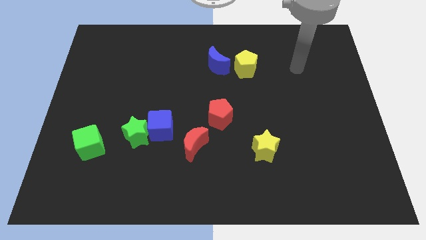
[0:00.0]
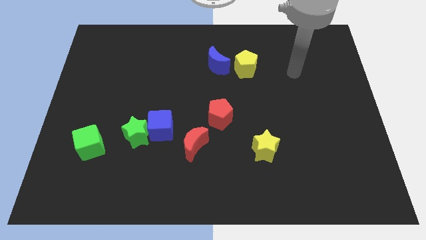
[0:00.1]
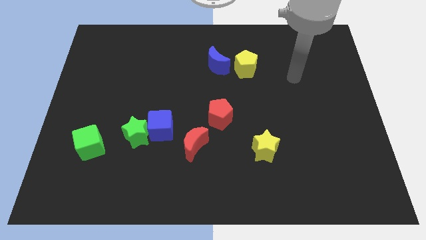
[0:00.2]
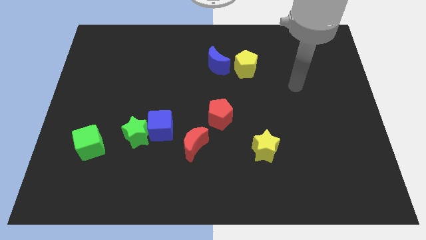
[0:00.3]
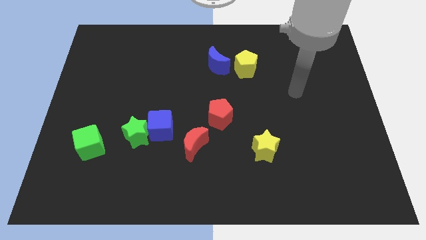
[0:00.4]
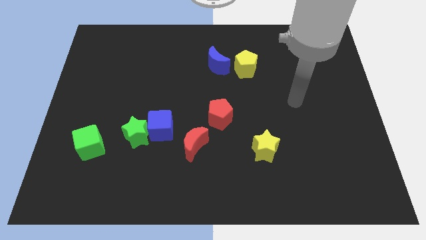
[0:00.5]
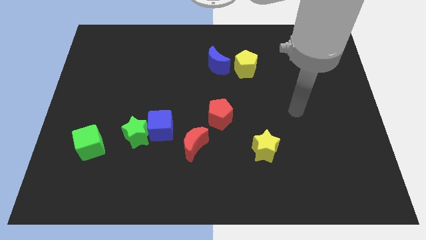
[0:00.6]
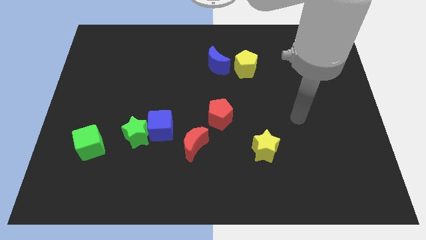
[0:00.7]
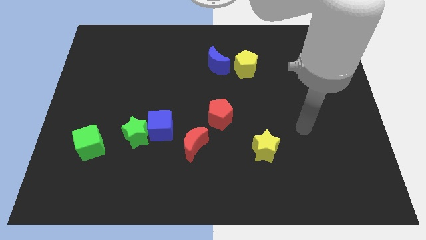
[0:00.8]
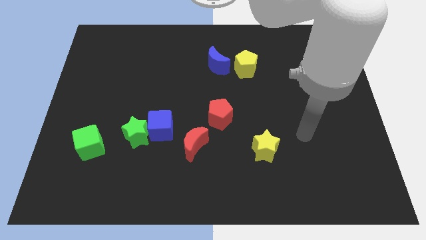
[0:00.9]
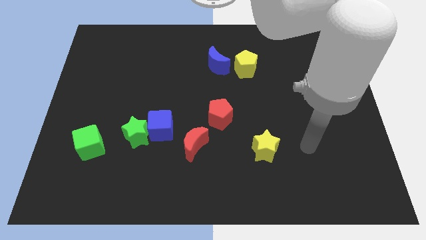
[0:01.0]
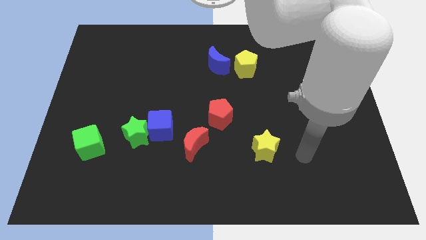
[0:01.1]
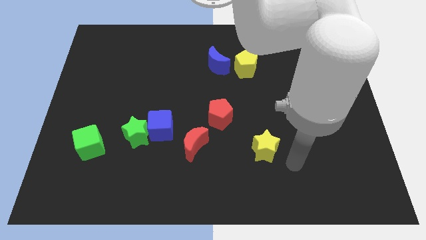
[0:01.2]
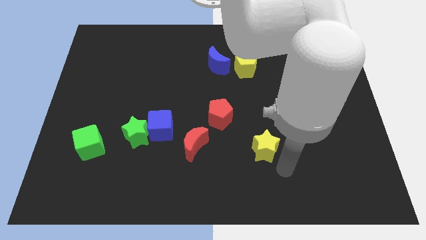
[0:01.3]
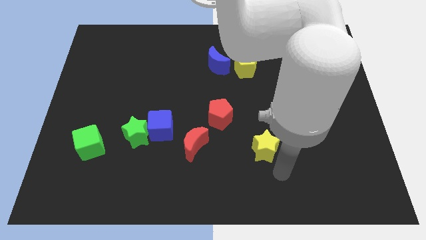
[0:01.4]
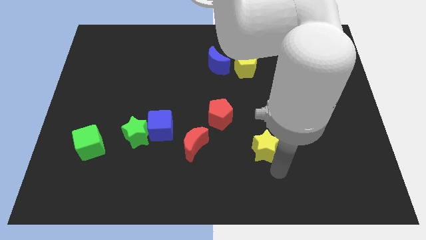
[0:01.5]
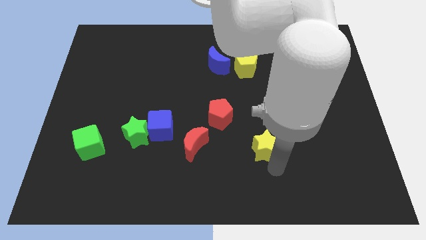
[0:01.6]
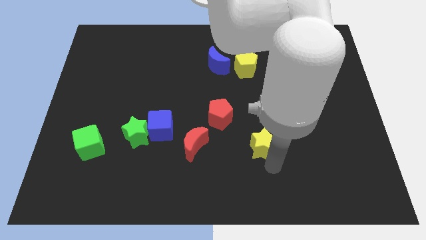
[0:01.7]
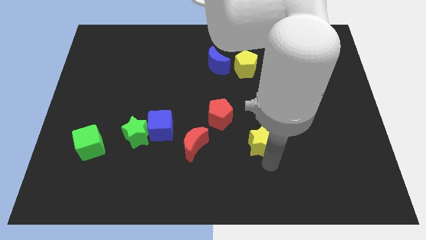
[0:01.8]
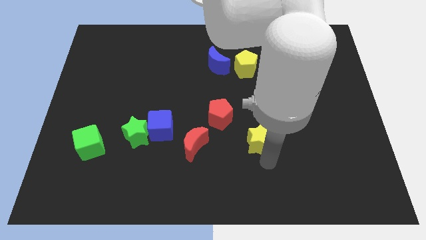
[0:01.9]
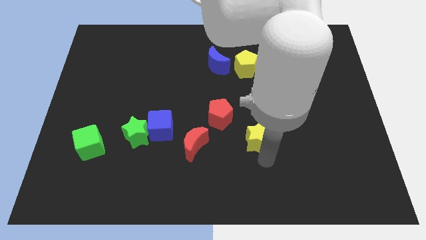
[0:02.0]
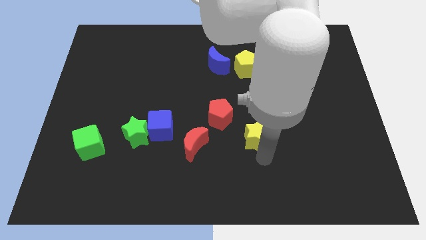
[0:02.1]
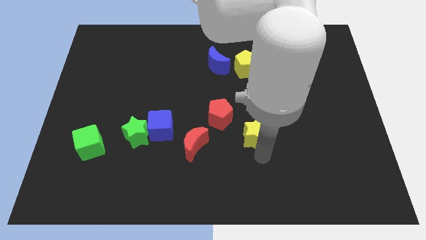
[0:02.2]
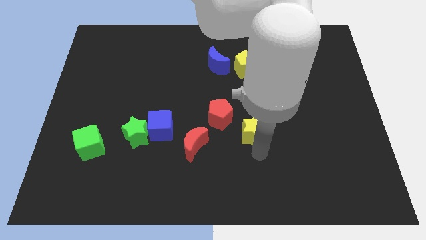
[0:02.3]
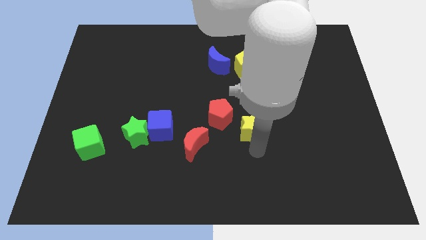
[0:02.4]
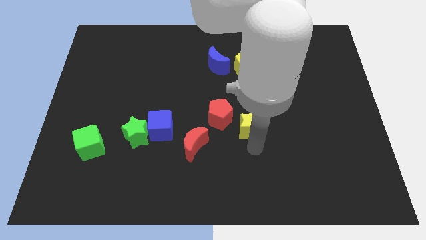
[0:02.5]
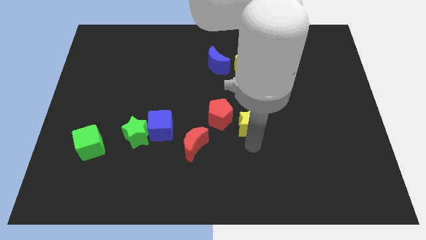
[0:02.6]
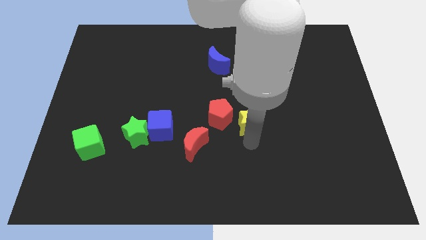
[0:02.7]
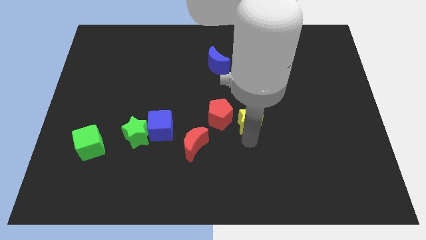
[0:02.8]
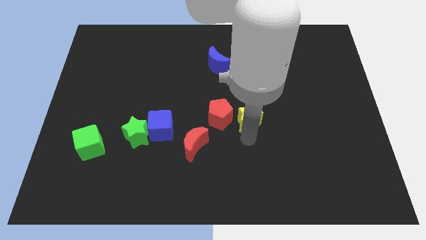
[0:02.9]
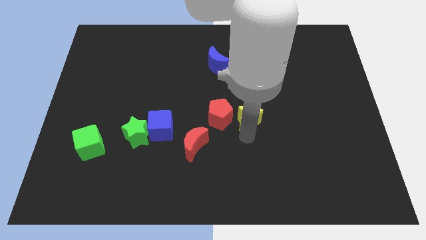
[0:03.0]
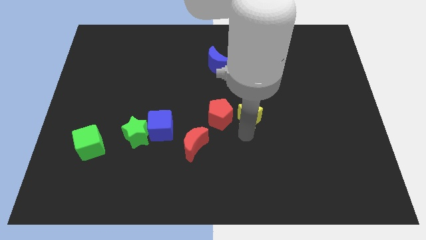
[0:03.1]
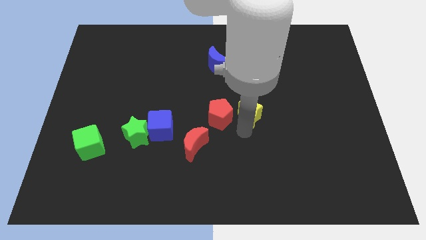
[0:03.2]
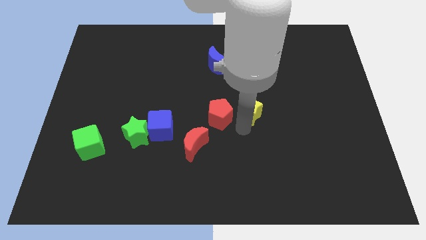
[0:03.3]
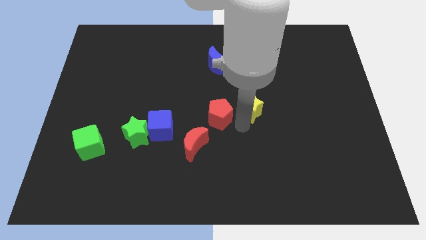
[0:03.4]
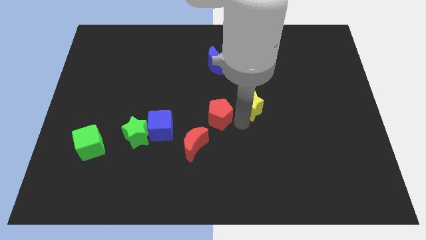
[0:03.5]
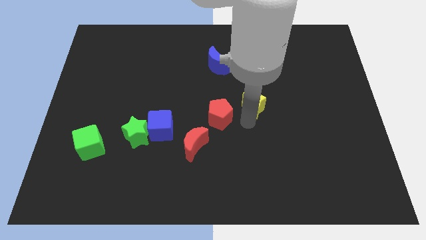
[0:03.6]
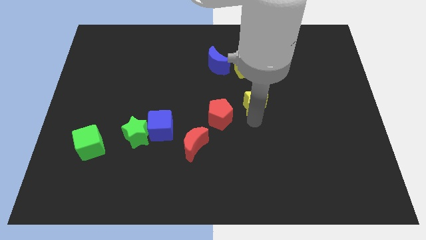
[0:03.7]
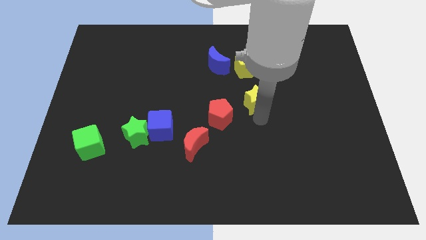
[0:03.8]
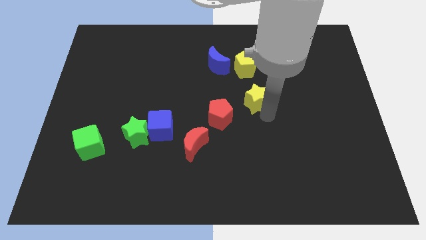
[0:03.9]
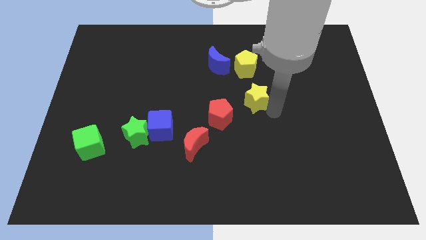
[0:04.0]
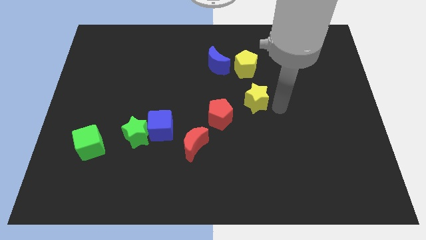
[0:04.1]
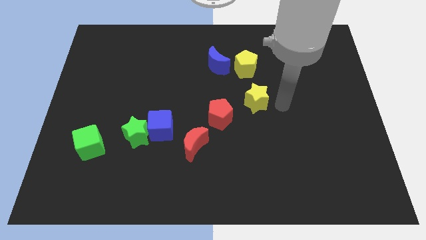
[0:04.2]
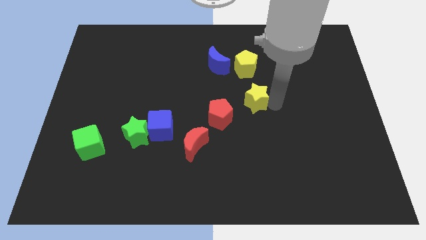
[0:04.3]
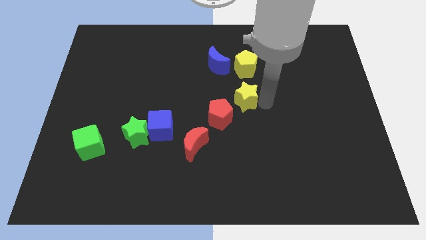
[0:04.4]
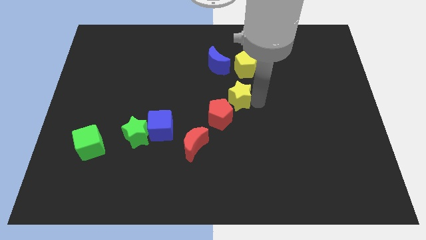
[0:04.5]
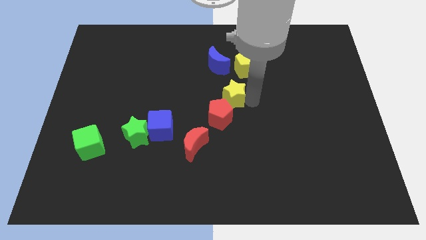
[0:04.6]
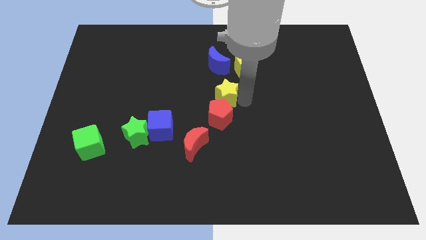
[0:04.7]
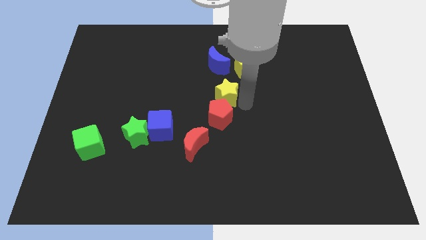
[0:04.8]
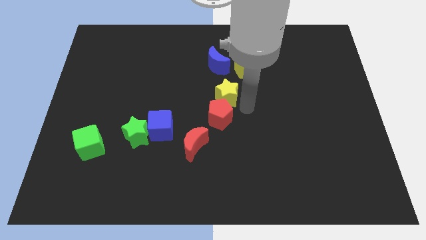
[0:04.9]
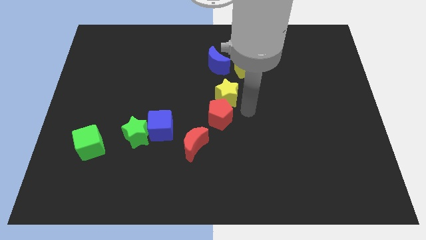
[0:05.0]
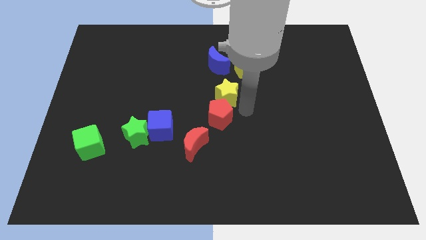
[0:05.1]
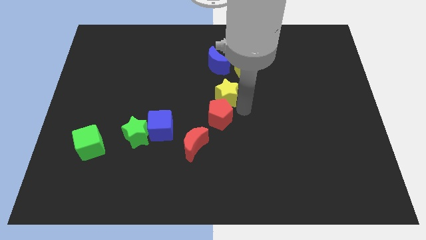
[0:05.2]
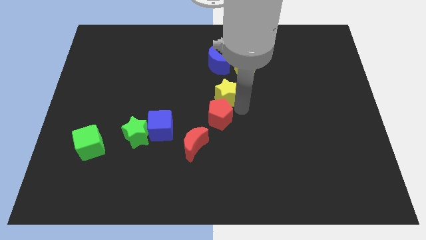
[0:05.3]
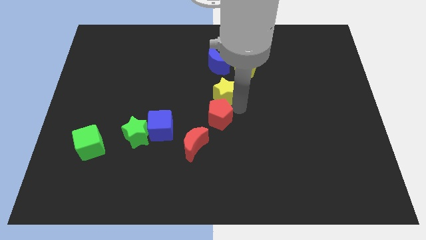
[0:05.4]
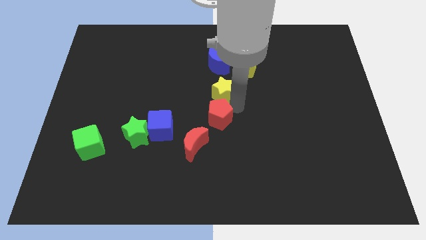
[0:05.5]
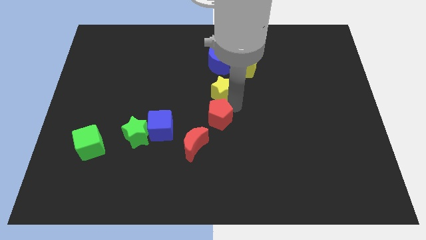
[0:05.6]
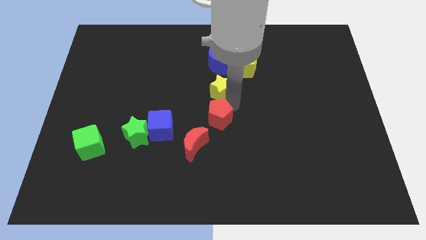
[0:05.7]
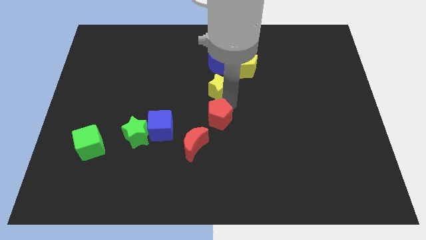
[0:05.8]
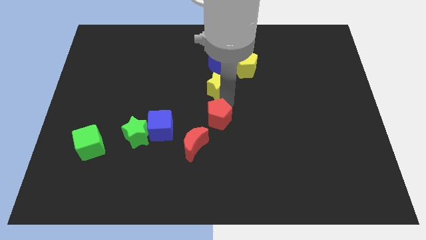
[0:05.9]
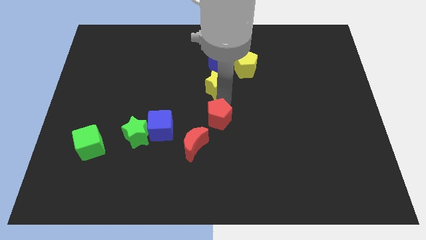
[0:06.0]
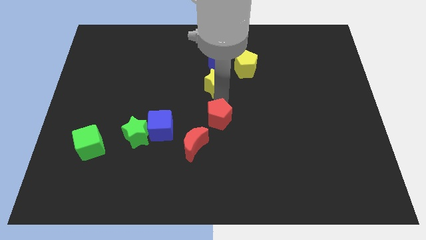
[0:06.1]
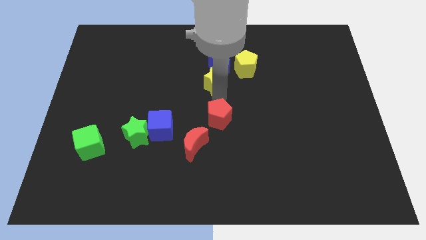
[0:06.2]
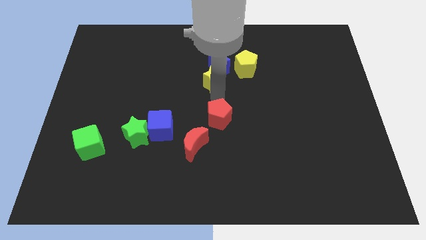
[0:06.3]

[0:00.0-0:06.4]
move the yellow star diagonally upwards and left

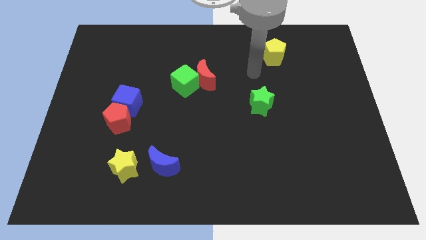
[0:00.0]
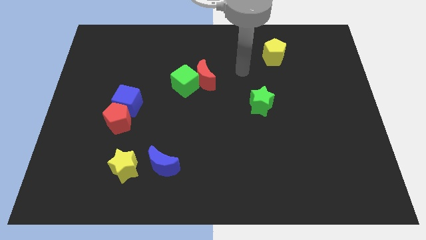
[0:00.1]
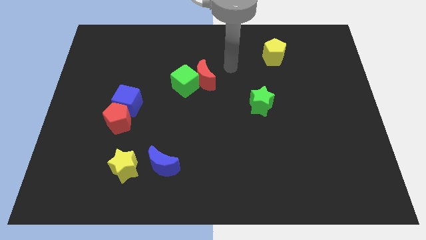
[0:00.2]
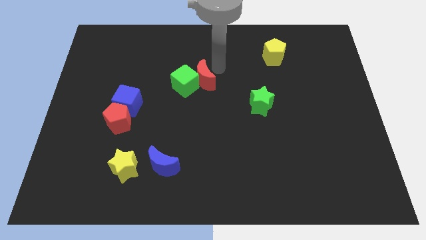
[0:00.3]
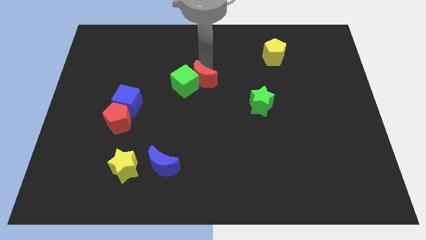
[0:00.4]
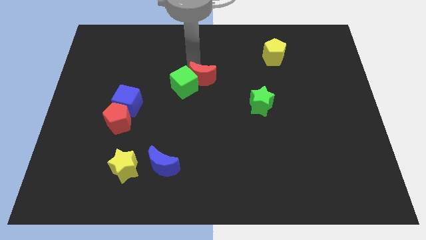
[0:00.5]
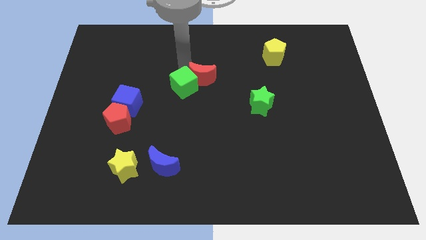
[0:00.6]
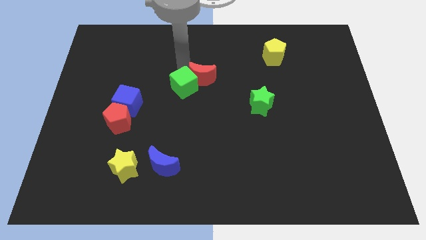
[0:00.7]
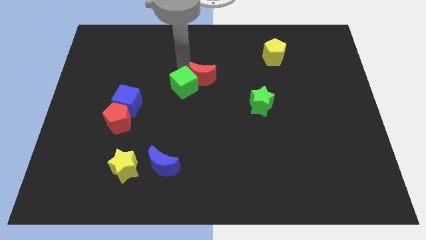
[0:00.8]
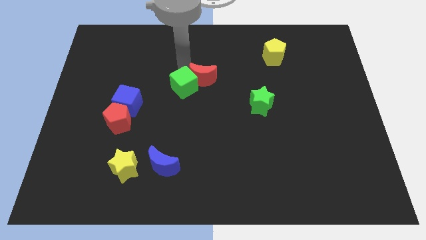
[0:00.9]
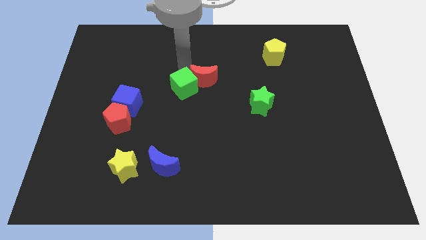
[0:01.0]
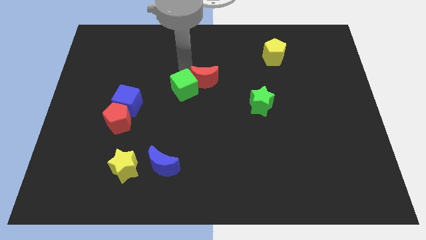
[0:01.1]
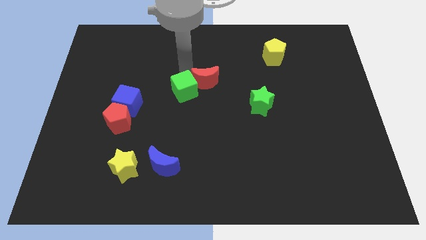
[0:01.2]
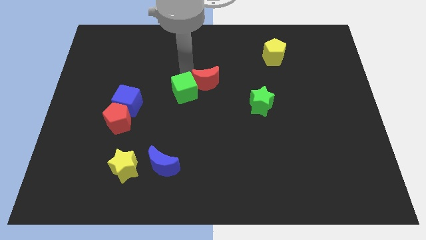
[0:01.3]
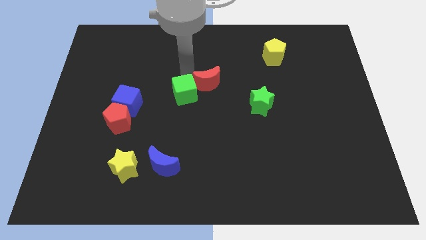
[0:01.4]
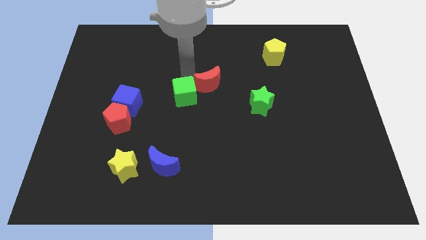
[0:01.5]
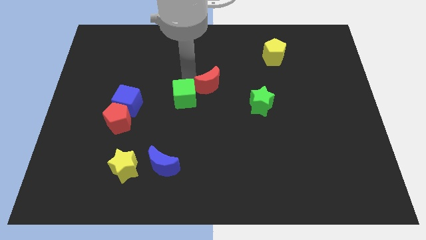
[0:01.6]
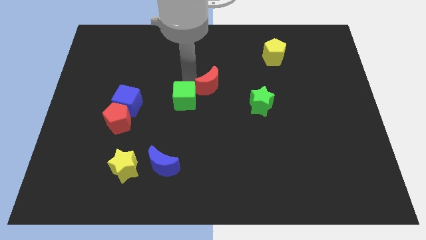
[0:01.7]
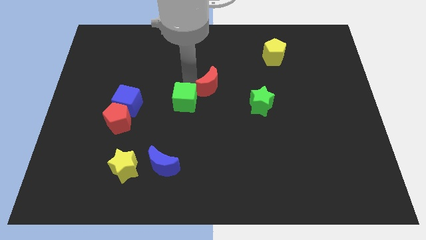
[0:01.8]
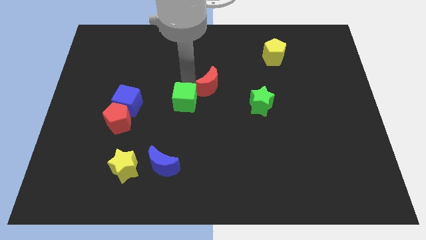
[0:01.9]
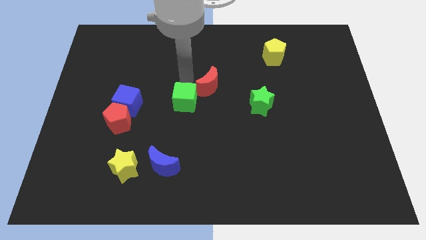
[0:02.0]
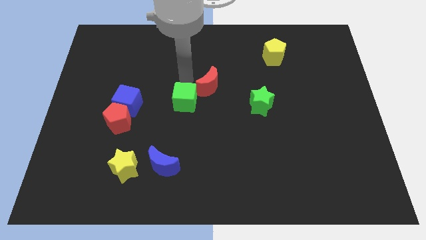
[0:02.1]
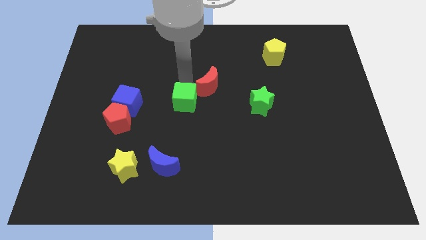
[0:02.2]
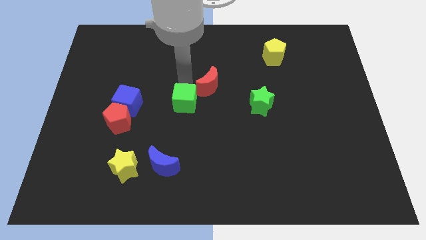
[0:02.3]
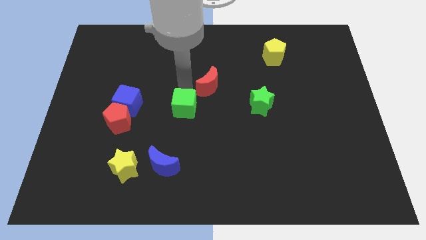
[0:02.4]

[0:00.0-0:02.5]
slightly move the green cube down
